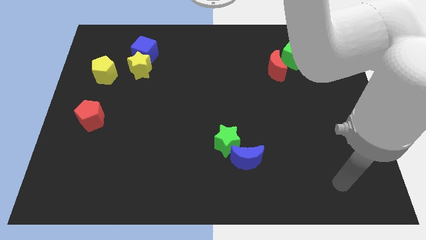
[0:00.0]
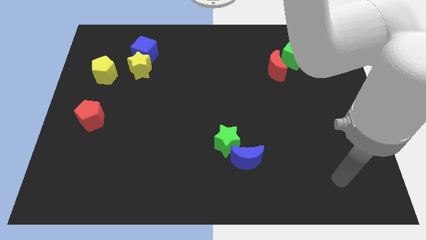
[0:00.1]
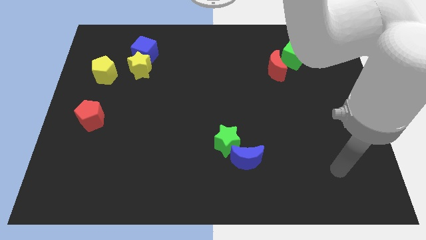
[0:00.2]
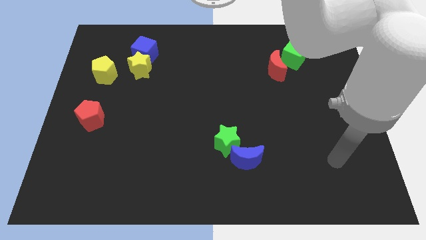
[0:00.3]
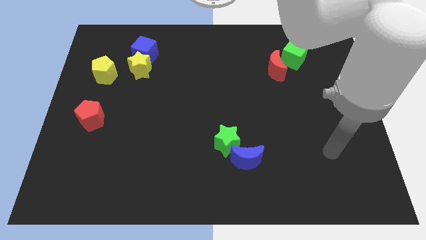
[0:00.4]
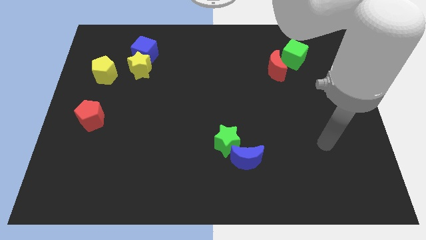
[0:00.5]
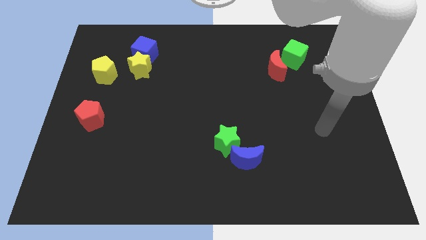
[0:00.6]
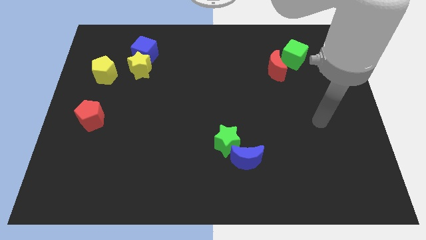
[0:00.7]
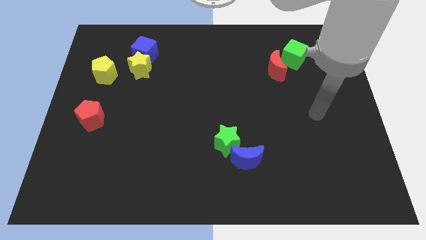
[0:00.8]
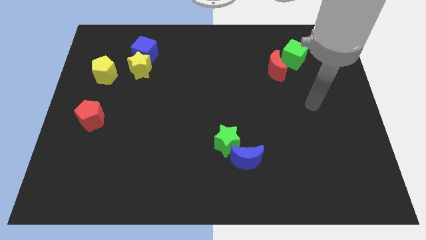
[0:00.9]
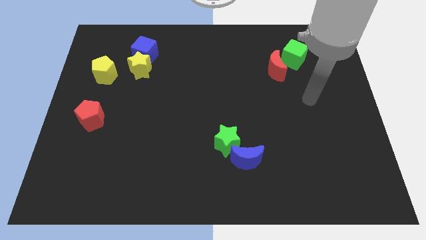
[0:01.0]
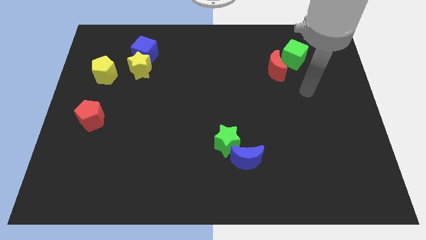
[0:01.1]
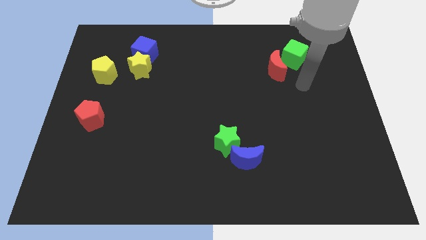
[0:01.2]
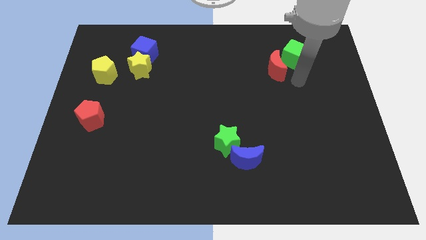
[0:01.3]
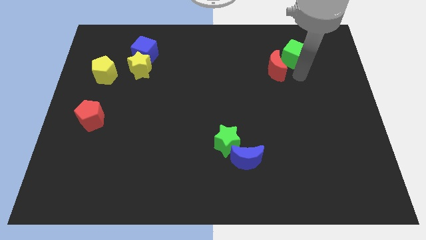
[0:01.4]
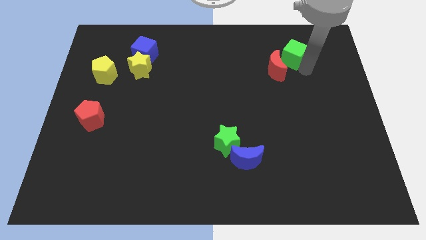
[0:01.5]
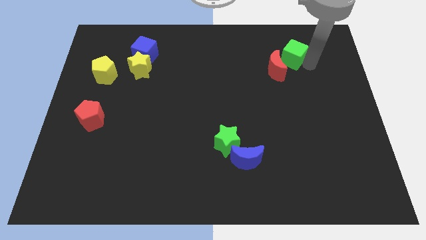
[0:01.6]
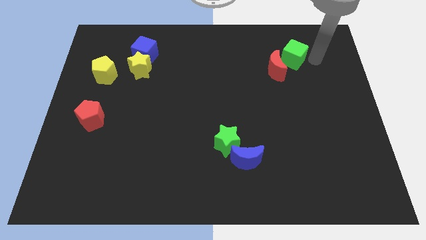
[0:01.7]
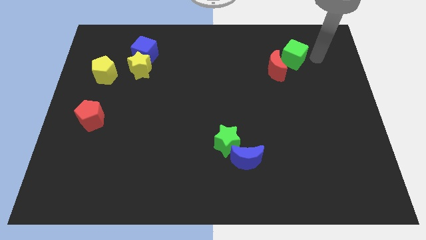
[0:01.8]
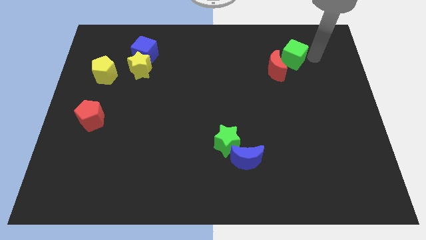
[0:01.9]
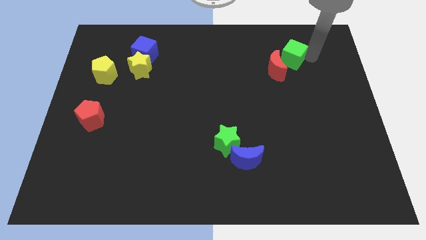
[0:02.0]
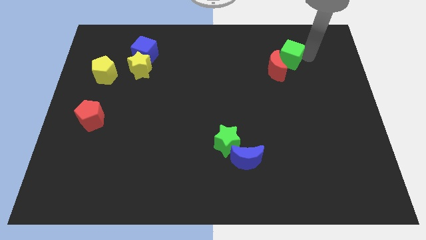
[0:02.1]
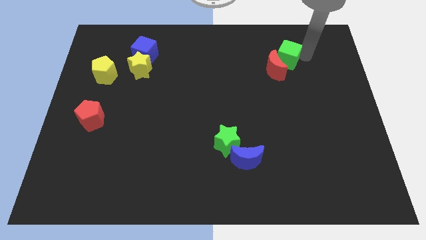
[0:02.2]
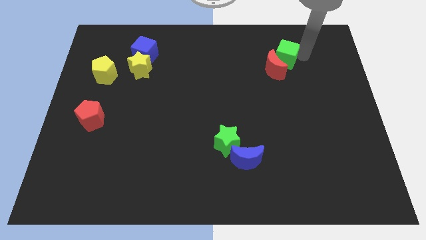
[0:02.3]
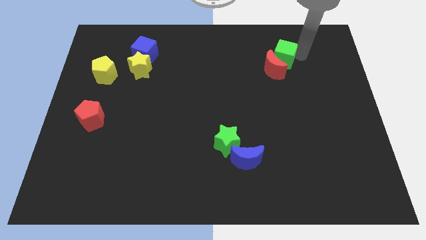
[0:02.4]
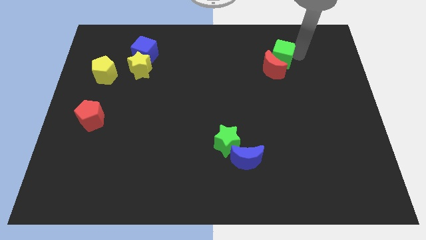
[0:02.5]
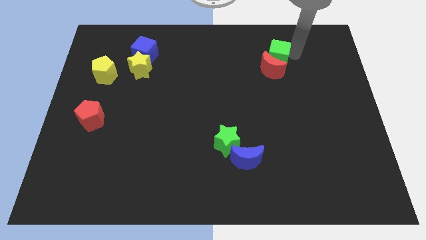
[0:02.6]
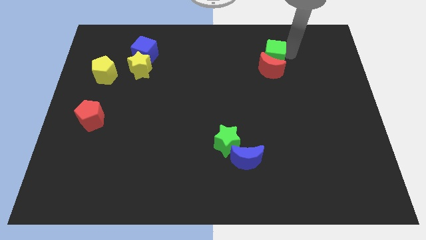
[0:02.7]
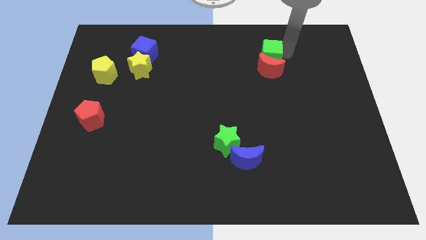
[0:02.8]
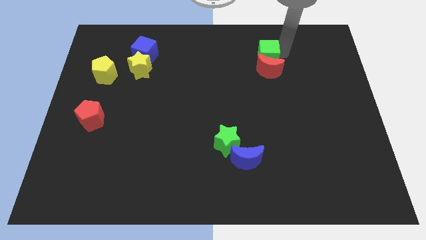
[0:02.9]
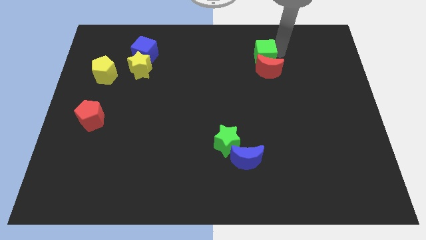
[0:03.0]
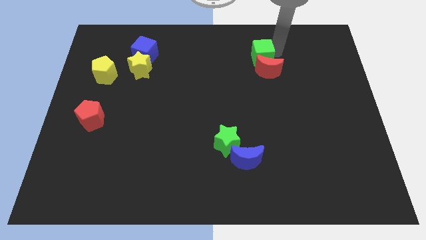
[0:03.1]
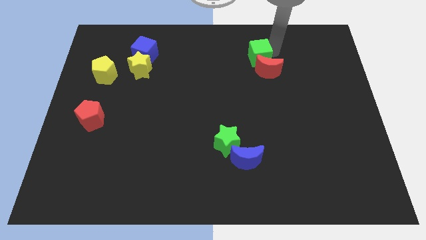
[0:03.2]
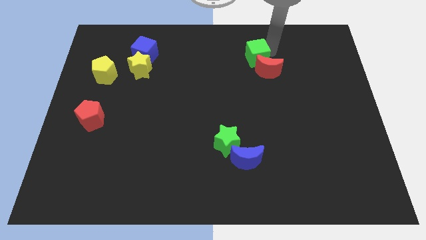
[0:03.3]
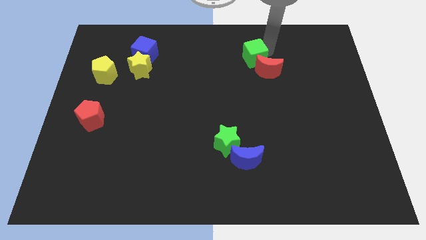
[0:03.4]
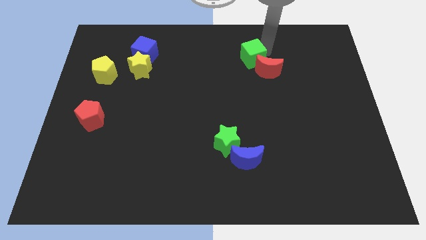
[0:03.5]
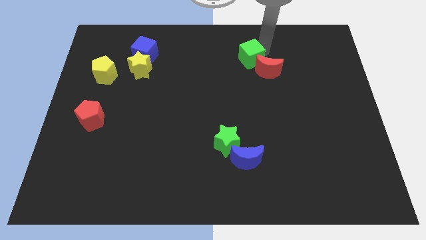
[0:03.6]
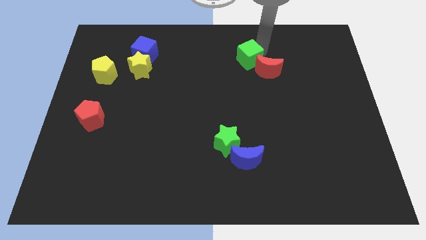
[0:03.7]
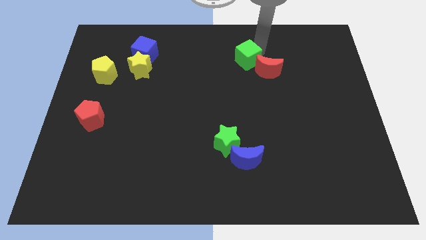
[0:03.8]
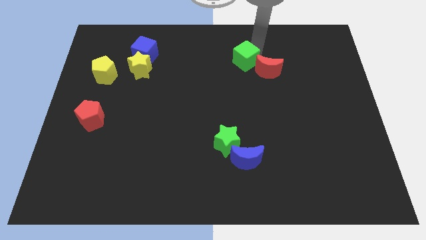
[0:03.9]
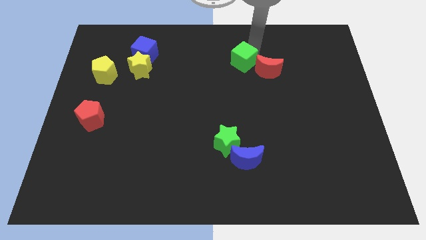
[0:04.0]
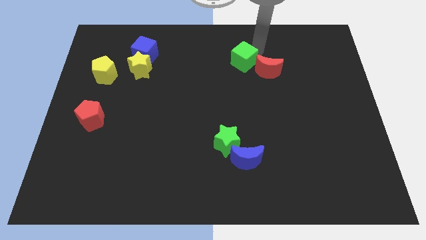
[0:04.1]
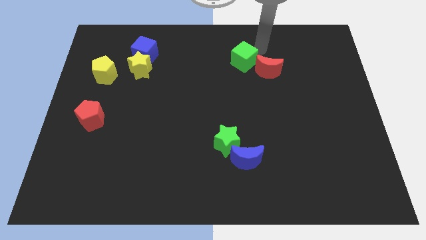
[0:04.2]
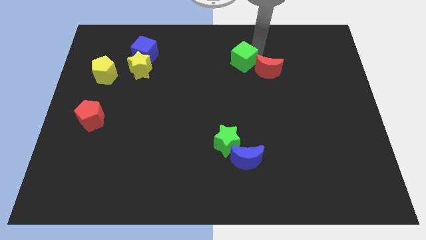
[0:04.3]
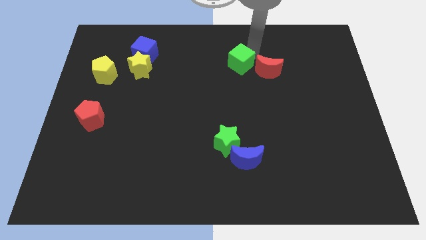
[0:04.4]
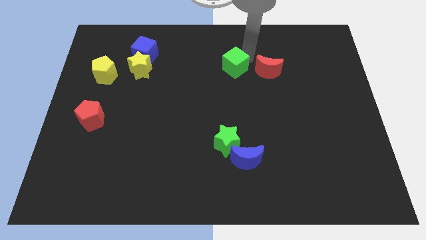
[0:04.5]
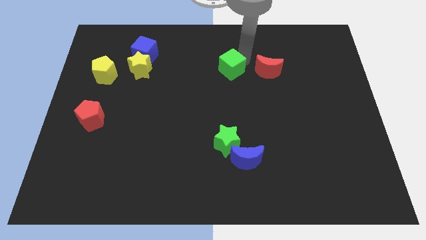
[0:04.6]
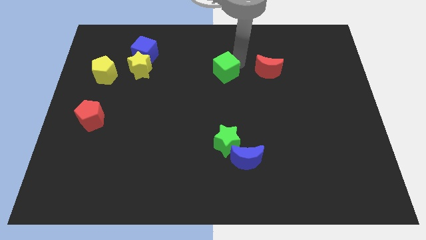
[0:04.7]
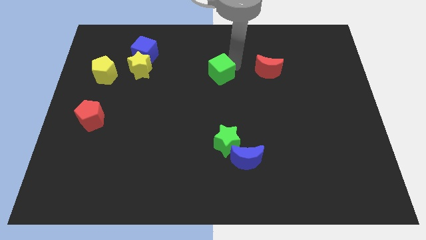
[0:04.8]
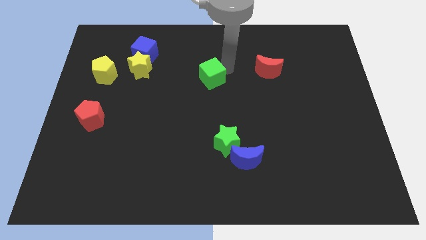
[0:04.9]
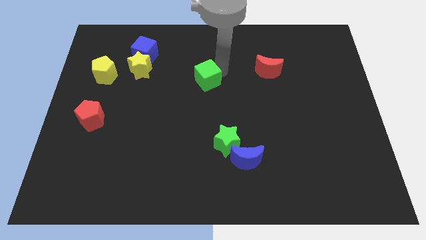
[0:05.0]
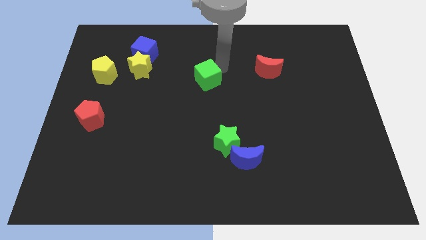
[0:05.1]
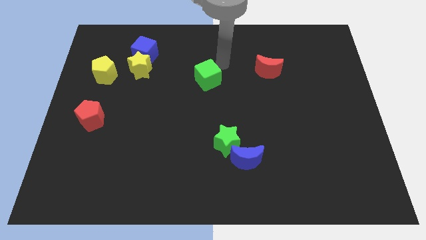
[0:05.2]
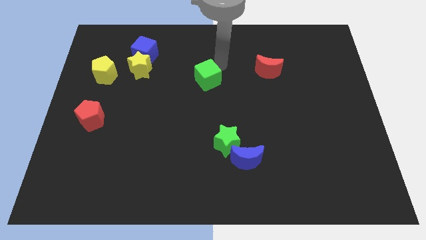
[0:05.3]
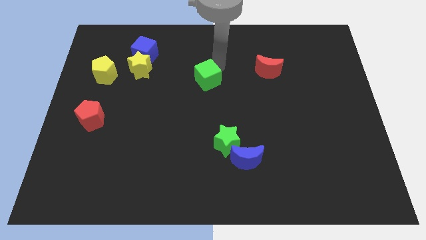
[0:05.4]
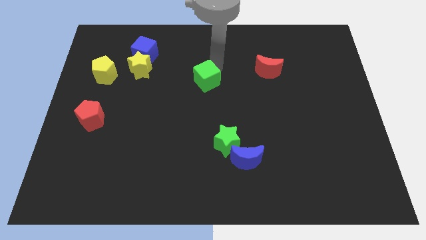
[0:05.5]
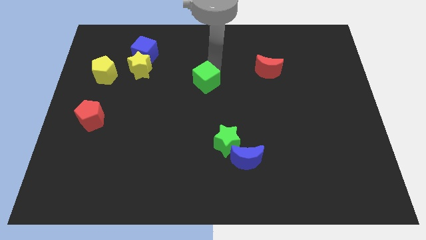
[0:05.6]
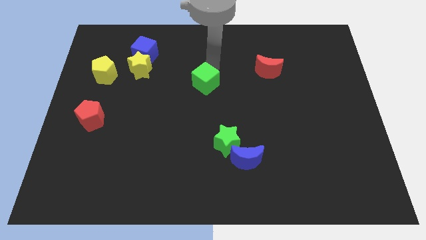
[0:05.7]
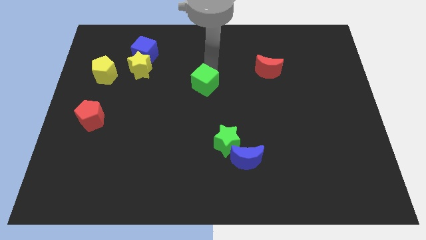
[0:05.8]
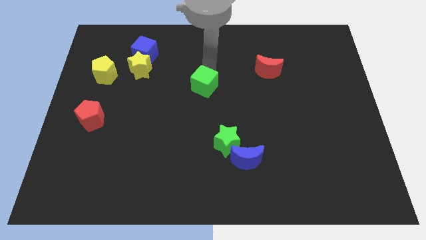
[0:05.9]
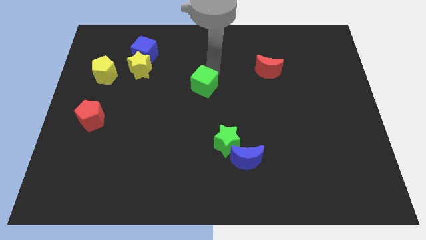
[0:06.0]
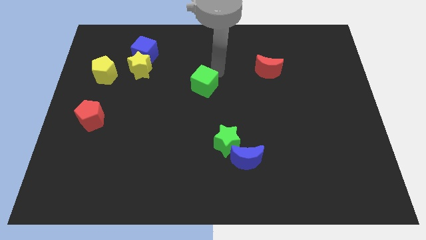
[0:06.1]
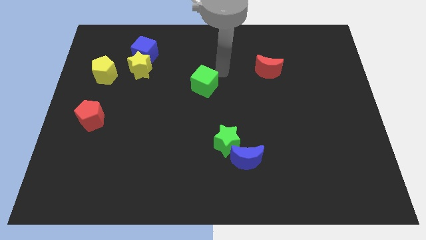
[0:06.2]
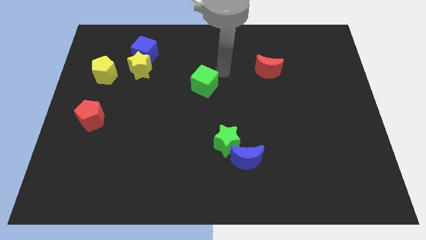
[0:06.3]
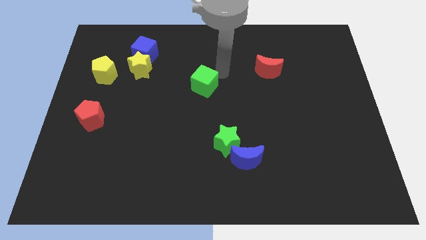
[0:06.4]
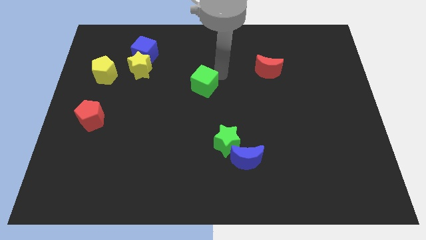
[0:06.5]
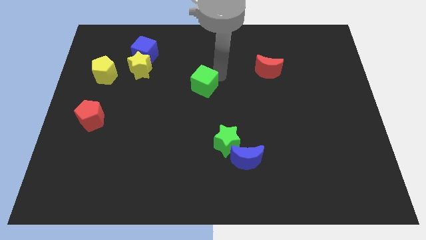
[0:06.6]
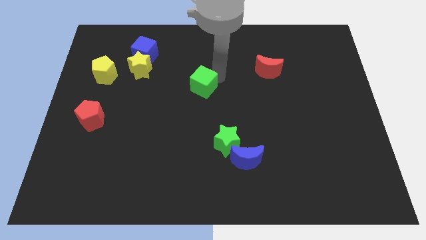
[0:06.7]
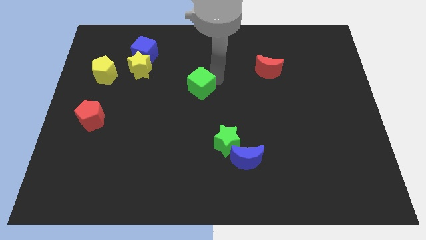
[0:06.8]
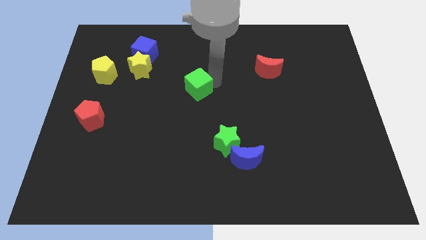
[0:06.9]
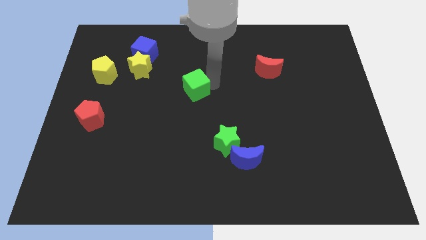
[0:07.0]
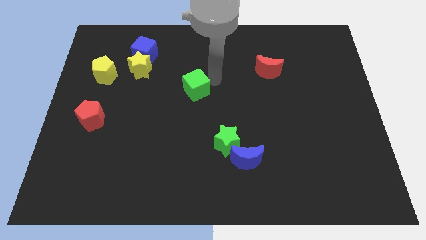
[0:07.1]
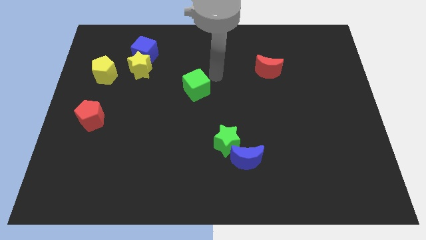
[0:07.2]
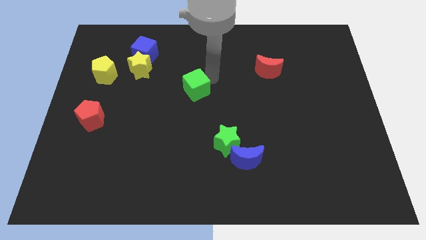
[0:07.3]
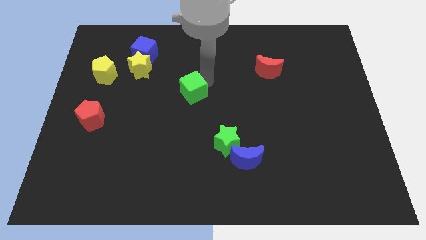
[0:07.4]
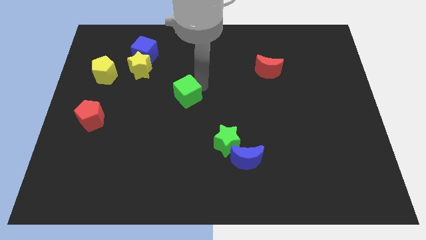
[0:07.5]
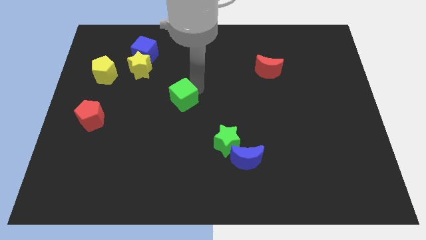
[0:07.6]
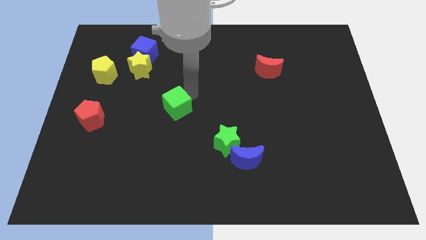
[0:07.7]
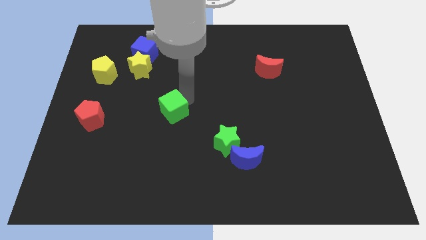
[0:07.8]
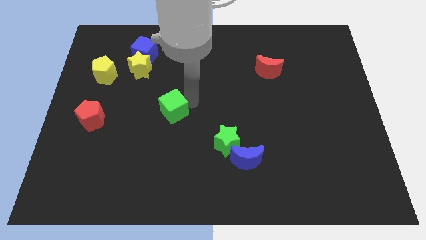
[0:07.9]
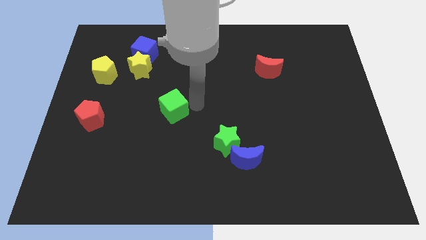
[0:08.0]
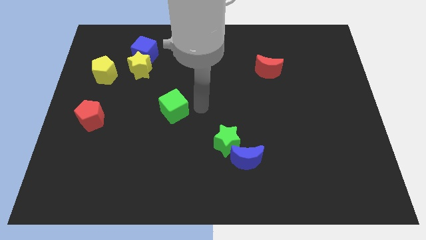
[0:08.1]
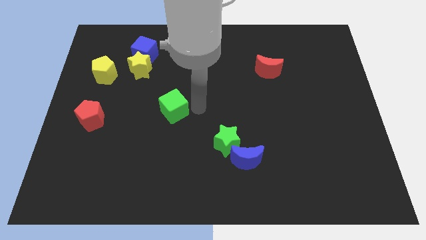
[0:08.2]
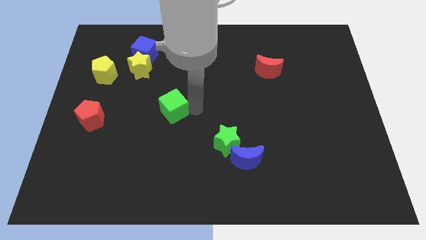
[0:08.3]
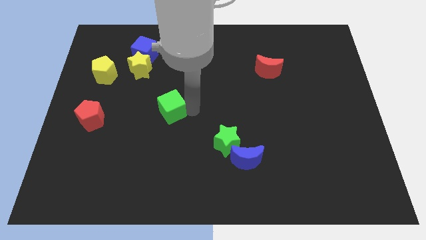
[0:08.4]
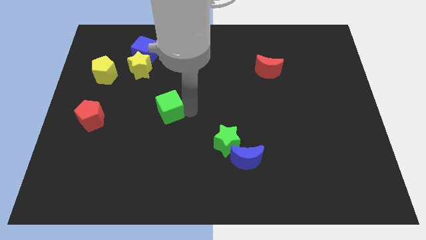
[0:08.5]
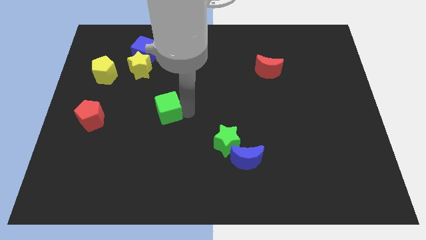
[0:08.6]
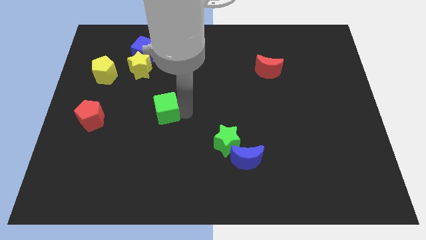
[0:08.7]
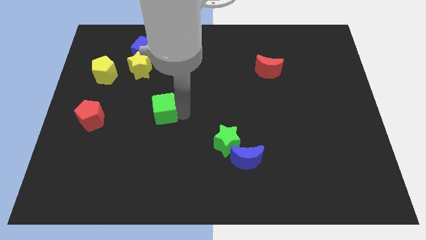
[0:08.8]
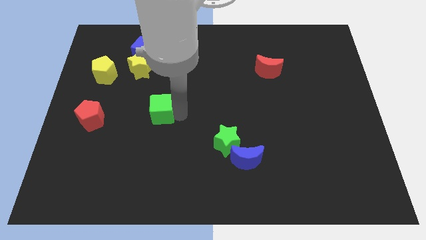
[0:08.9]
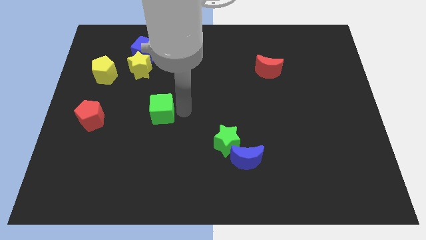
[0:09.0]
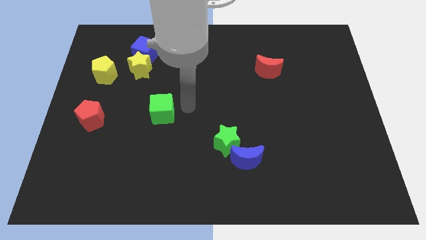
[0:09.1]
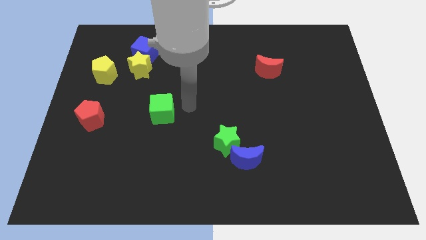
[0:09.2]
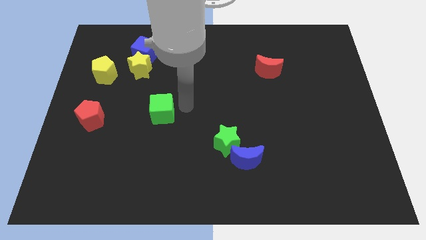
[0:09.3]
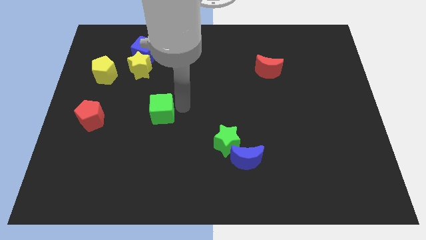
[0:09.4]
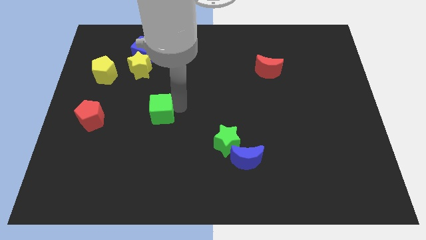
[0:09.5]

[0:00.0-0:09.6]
slide the green cube to the right of the red pentagon
